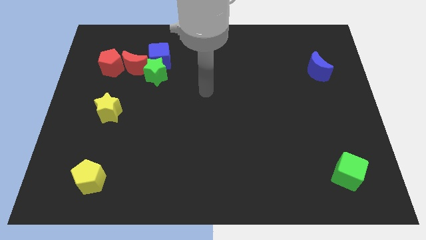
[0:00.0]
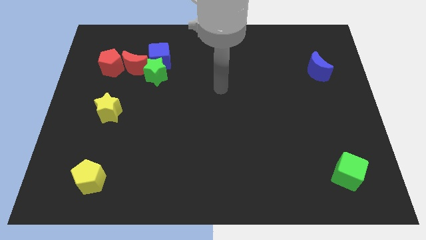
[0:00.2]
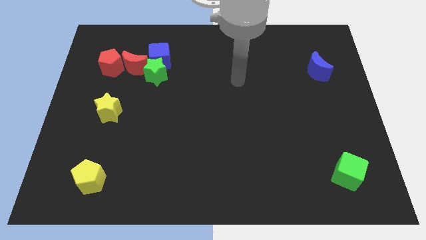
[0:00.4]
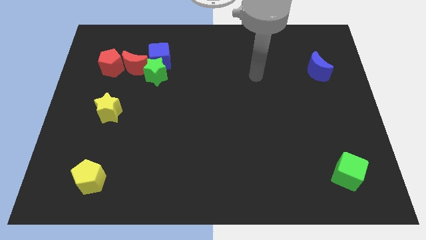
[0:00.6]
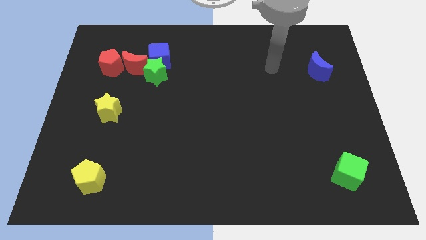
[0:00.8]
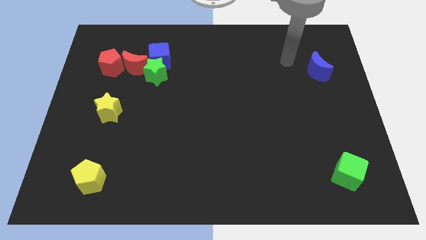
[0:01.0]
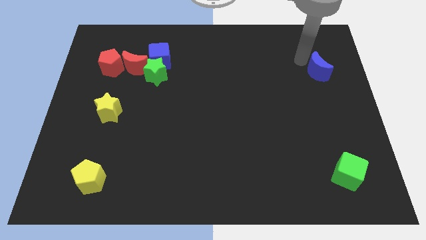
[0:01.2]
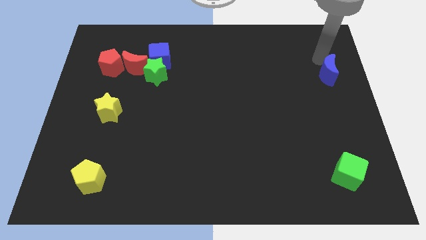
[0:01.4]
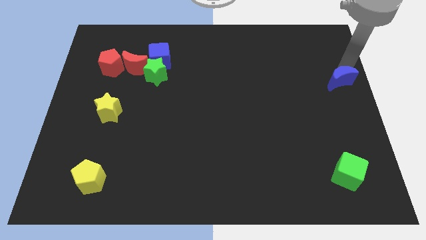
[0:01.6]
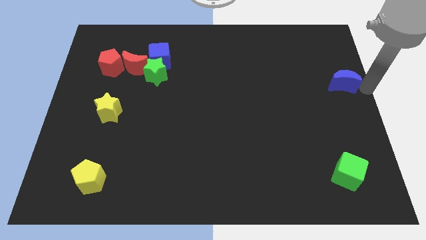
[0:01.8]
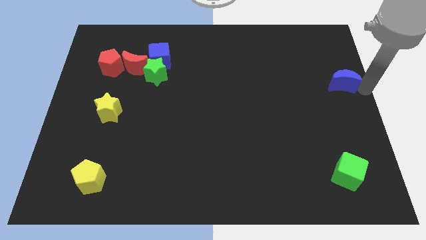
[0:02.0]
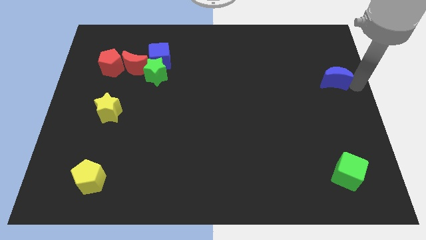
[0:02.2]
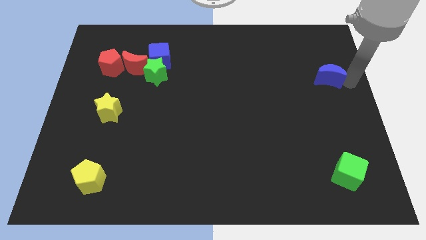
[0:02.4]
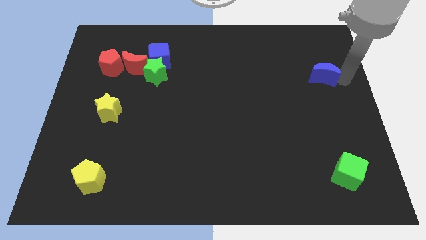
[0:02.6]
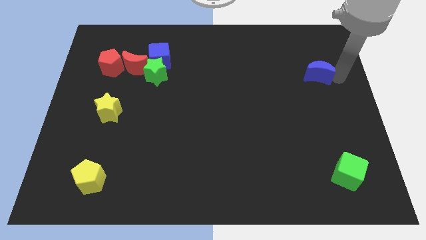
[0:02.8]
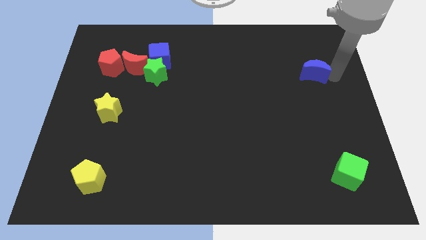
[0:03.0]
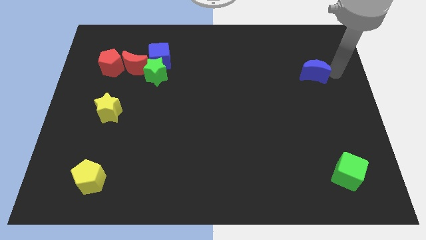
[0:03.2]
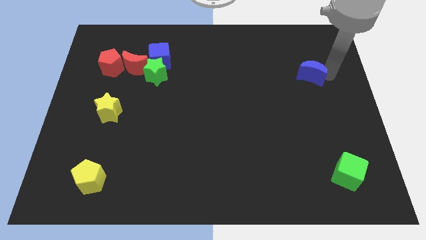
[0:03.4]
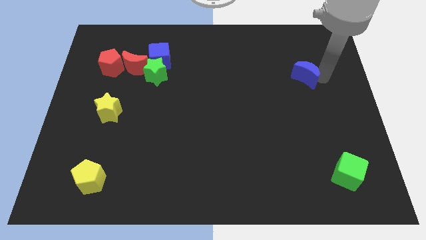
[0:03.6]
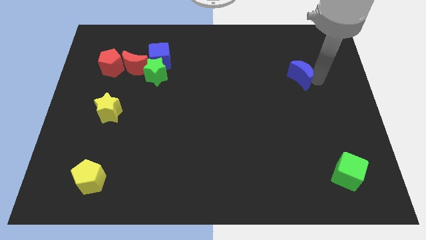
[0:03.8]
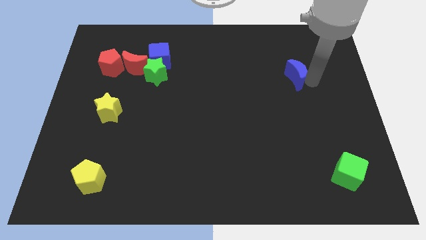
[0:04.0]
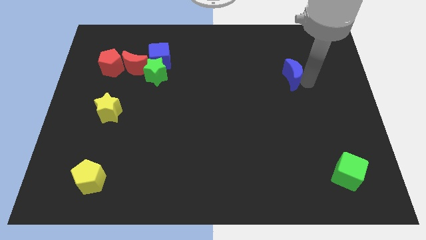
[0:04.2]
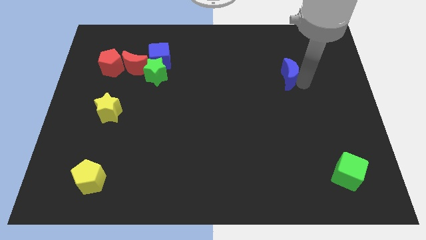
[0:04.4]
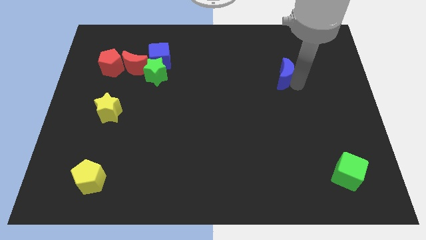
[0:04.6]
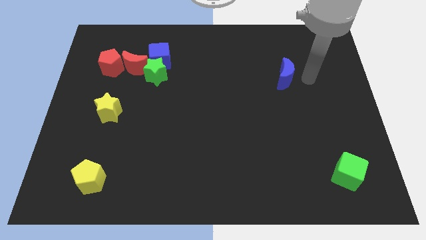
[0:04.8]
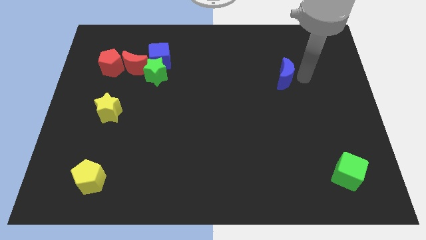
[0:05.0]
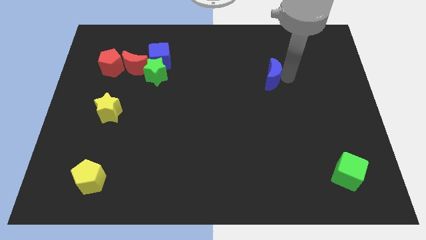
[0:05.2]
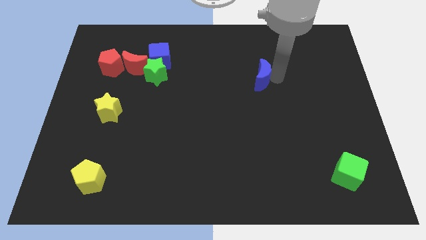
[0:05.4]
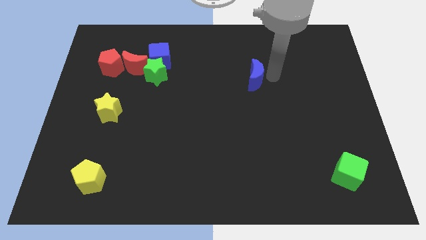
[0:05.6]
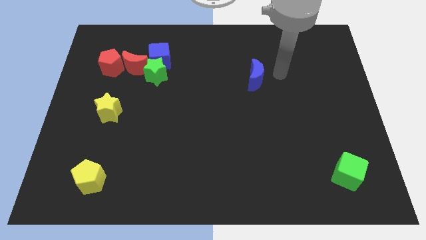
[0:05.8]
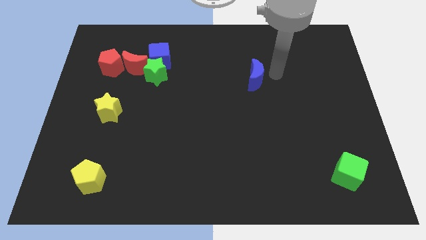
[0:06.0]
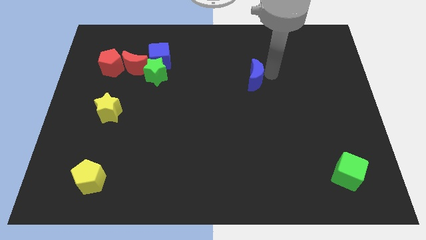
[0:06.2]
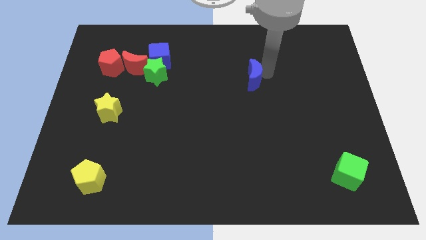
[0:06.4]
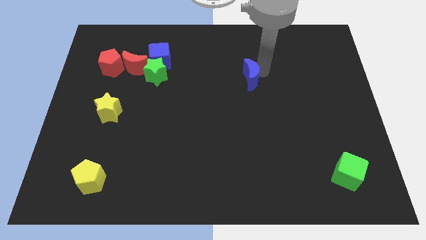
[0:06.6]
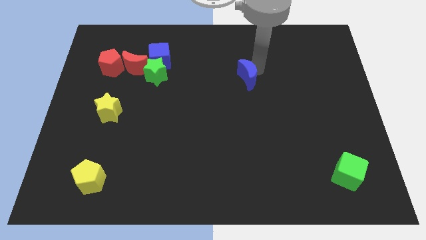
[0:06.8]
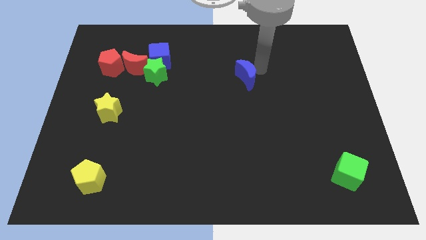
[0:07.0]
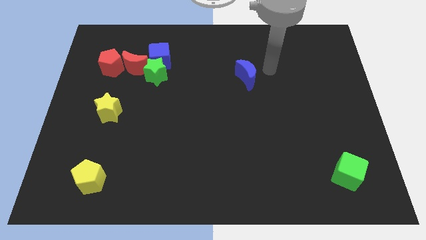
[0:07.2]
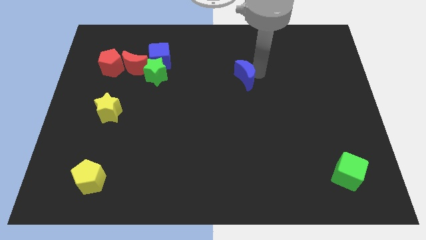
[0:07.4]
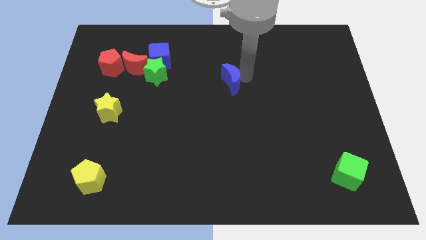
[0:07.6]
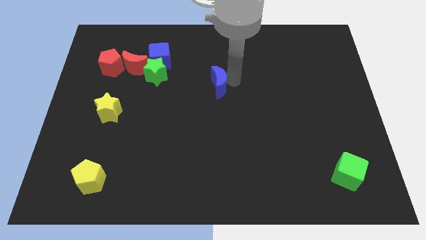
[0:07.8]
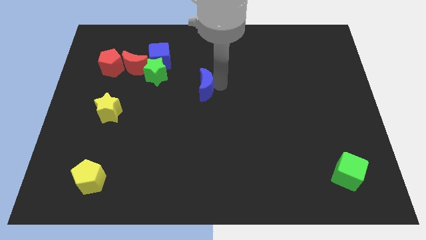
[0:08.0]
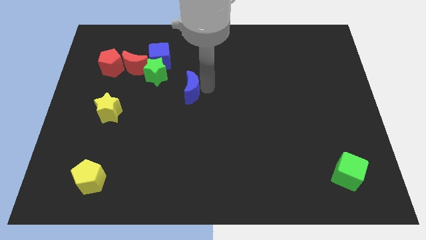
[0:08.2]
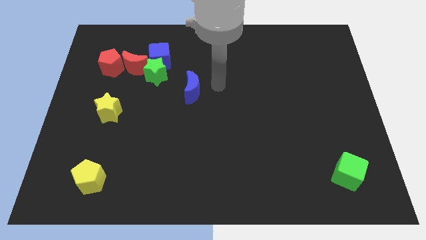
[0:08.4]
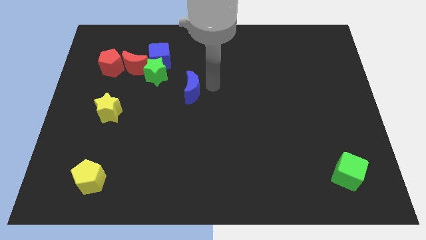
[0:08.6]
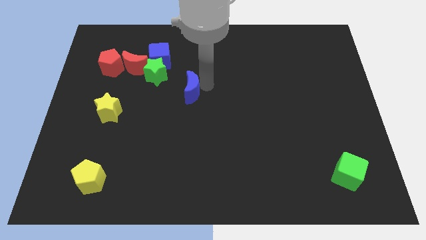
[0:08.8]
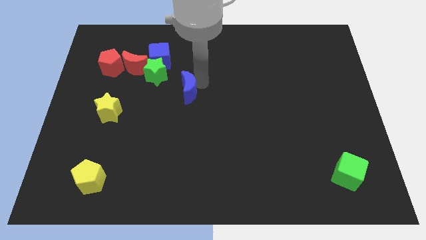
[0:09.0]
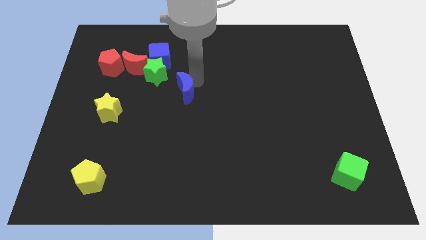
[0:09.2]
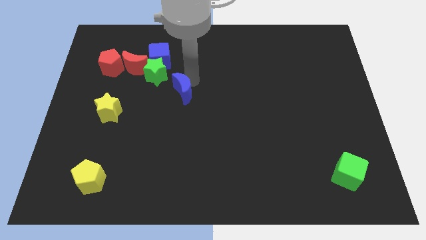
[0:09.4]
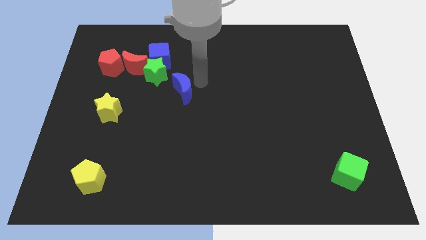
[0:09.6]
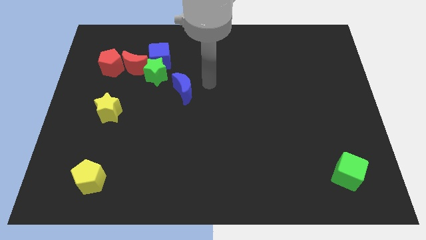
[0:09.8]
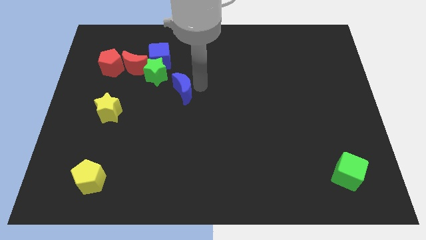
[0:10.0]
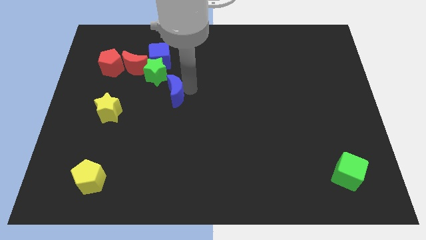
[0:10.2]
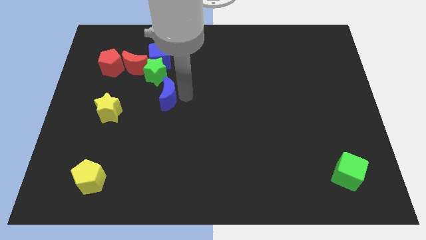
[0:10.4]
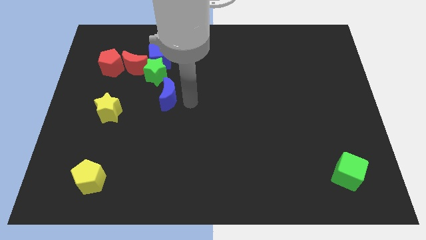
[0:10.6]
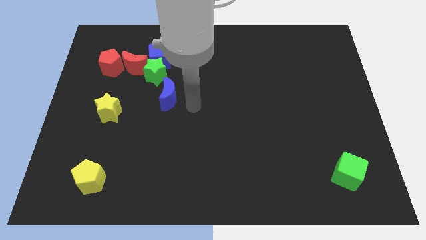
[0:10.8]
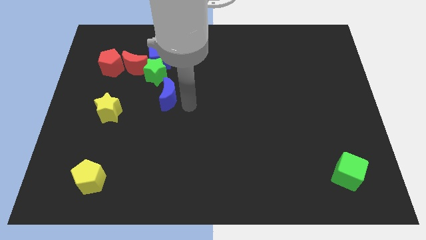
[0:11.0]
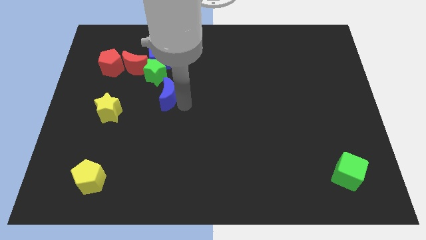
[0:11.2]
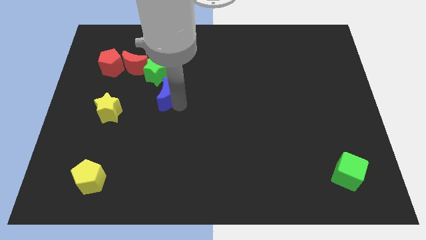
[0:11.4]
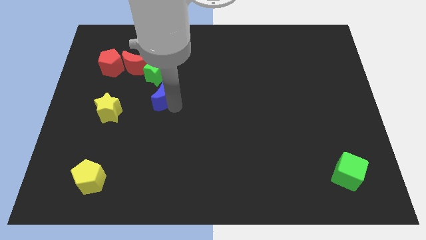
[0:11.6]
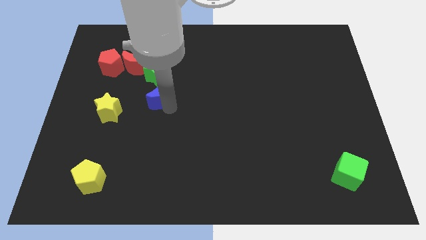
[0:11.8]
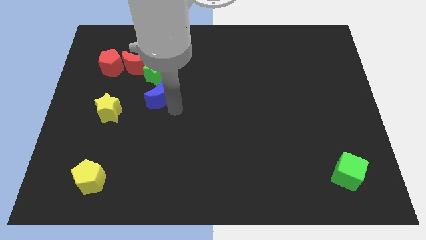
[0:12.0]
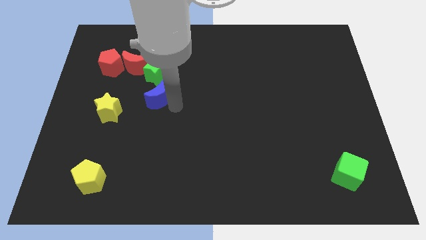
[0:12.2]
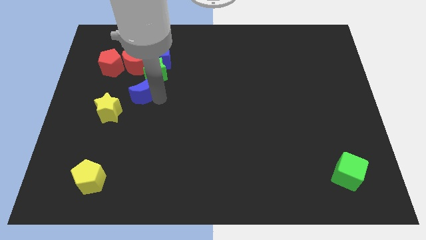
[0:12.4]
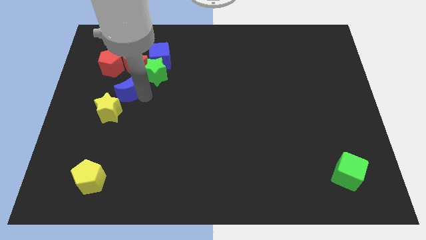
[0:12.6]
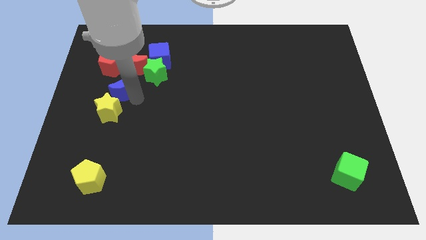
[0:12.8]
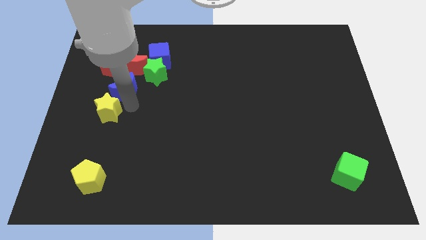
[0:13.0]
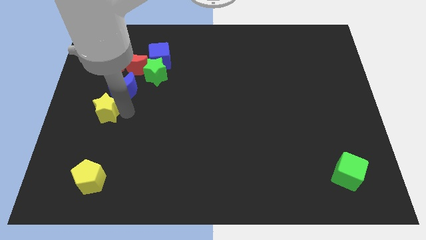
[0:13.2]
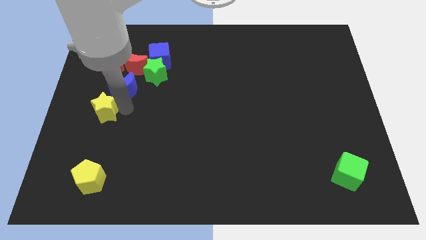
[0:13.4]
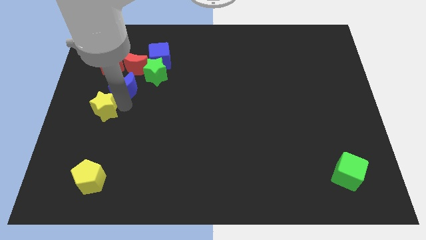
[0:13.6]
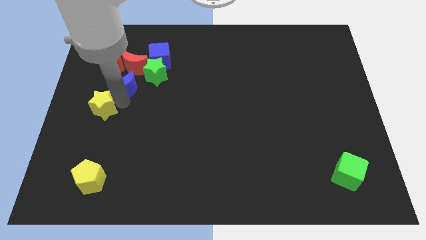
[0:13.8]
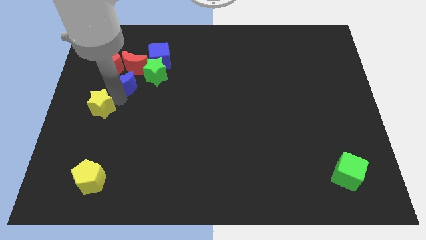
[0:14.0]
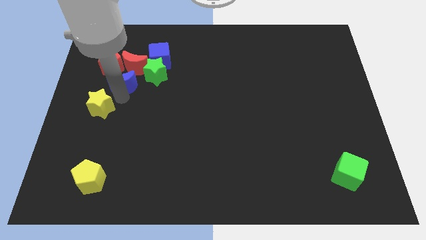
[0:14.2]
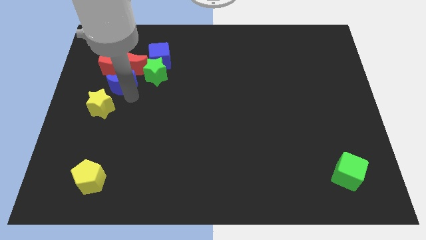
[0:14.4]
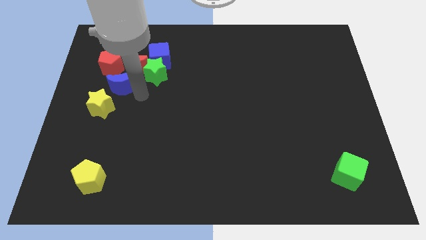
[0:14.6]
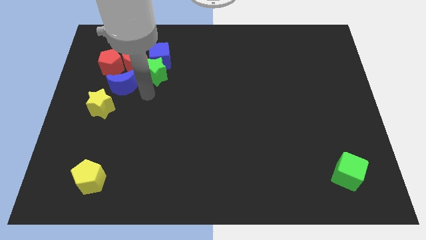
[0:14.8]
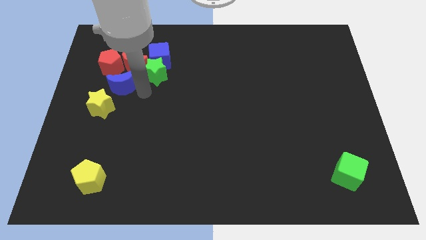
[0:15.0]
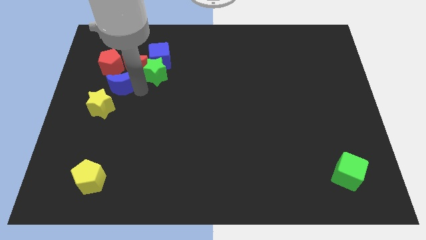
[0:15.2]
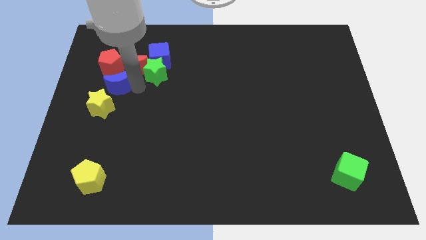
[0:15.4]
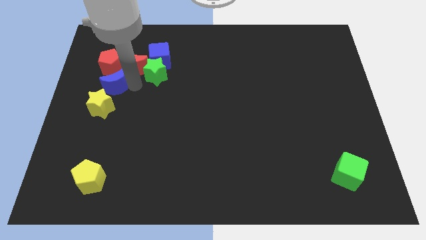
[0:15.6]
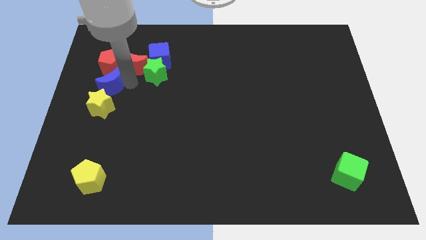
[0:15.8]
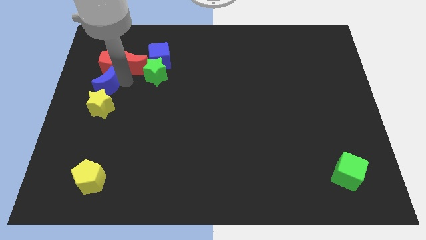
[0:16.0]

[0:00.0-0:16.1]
put the blue moon to the center left
